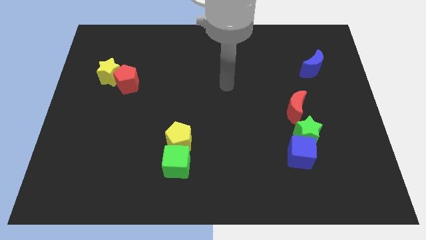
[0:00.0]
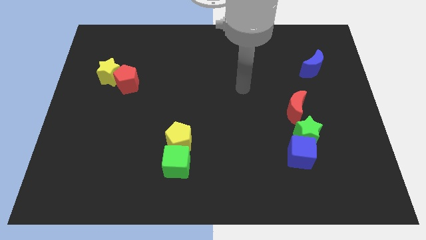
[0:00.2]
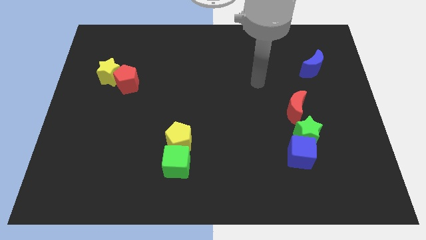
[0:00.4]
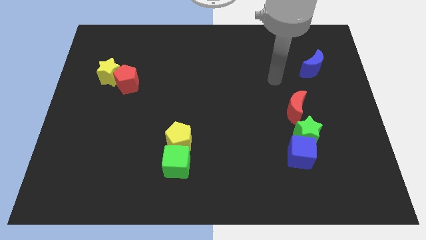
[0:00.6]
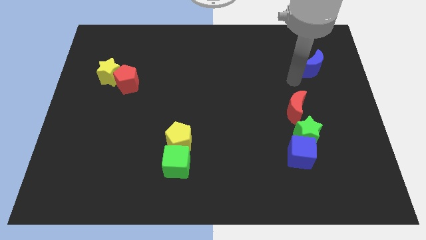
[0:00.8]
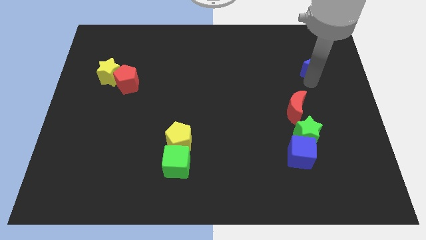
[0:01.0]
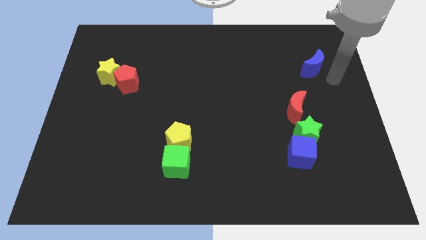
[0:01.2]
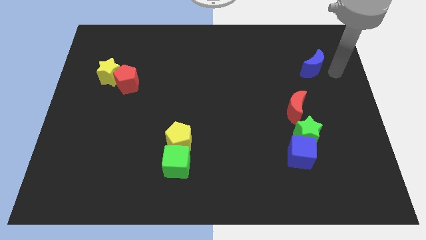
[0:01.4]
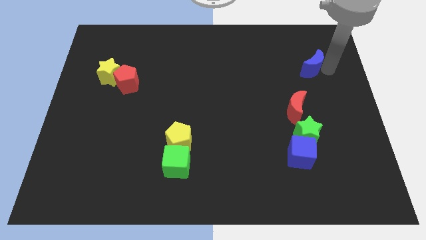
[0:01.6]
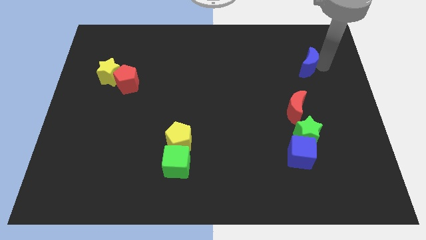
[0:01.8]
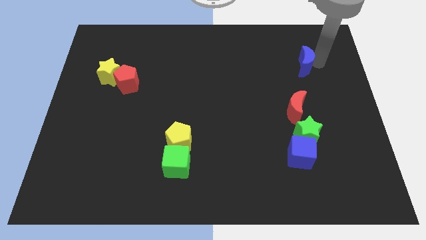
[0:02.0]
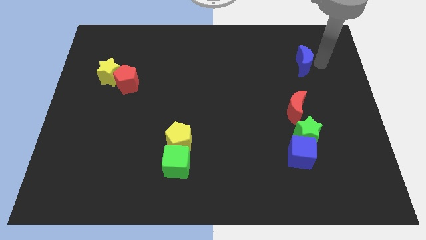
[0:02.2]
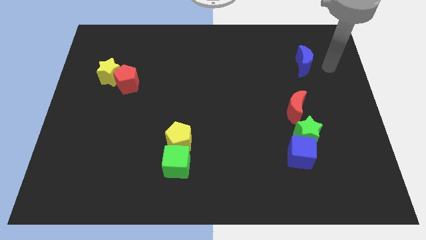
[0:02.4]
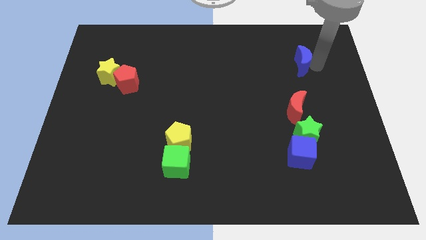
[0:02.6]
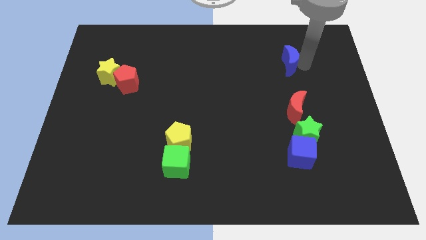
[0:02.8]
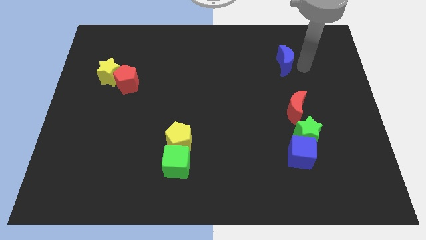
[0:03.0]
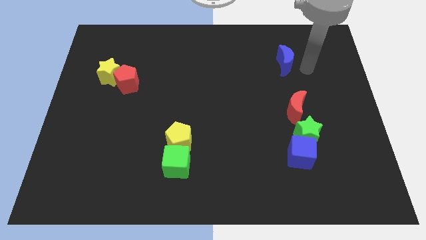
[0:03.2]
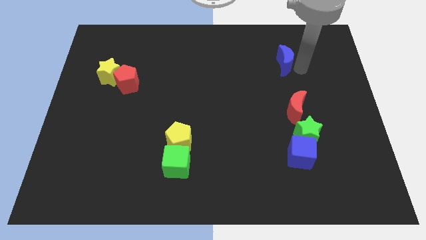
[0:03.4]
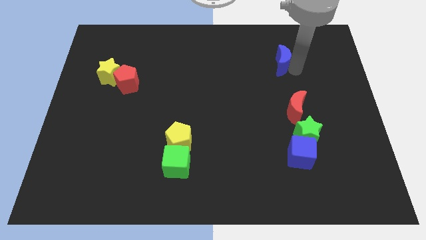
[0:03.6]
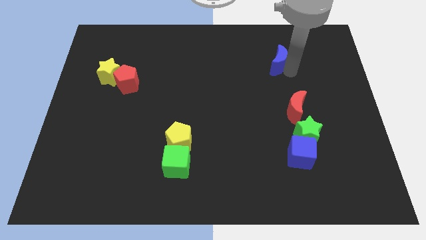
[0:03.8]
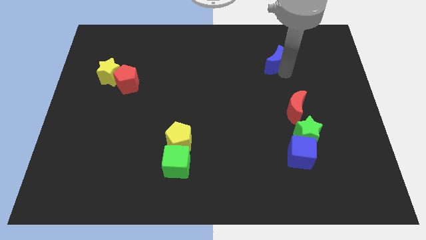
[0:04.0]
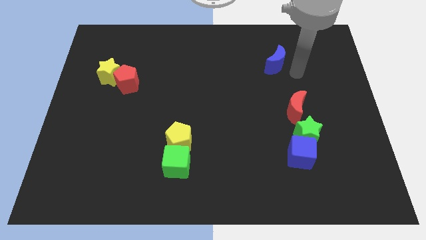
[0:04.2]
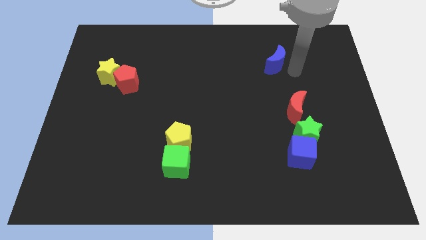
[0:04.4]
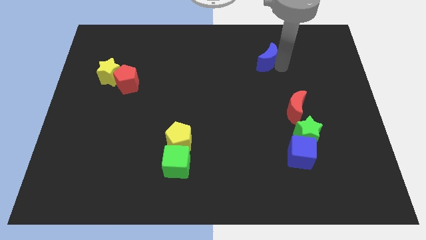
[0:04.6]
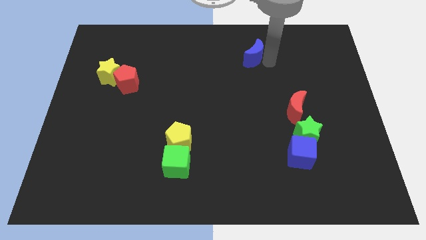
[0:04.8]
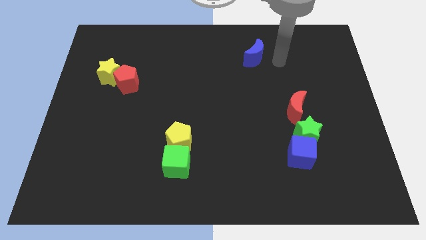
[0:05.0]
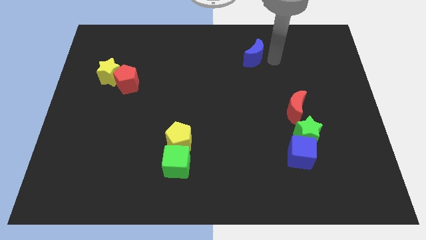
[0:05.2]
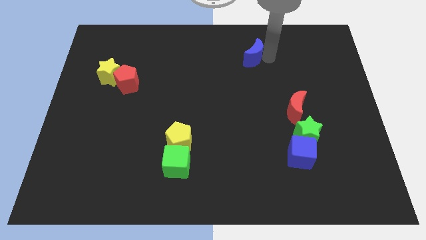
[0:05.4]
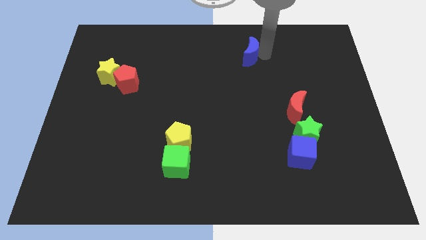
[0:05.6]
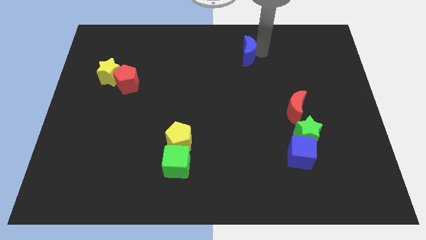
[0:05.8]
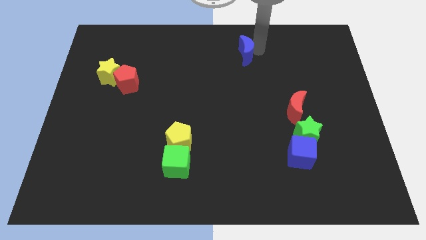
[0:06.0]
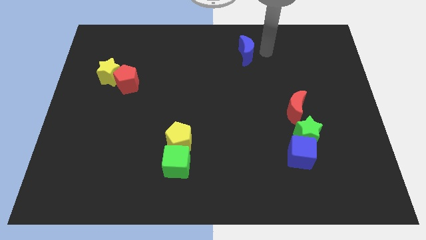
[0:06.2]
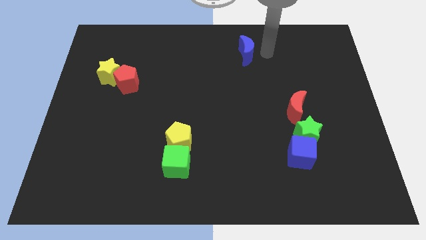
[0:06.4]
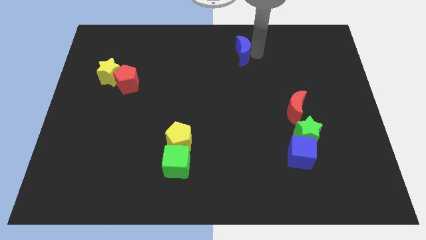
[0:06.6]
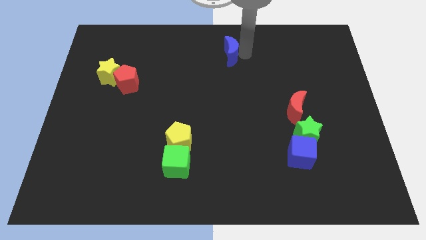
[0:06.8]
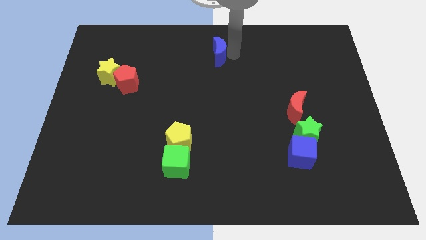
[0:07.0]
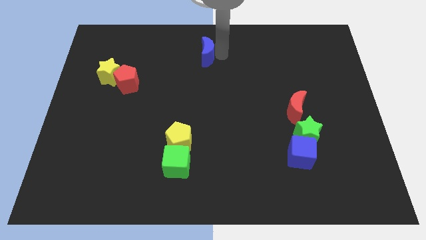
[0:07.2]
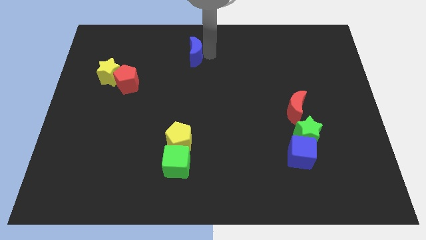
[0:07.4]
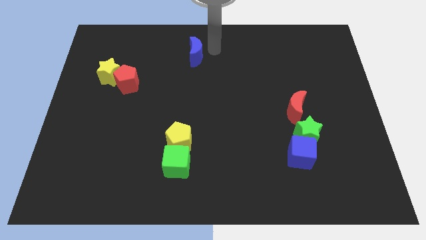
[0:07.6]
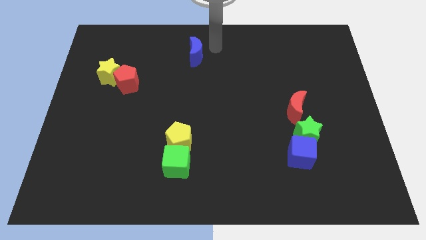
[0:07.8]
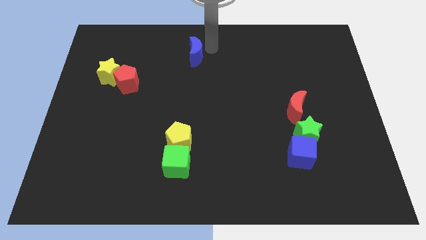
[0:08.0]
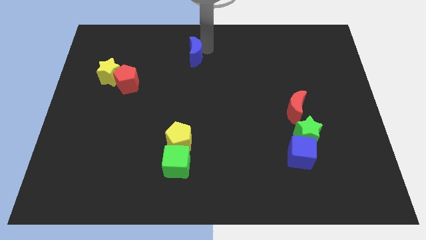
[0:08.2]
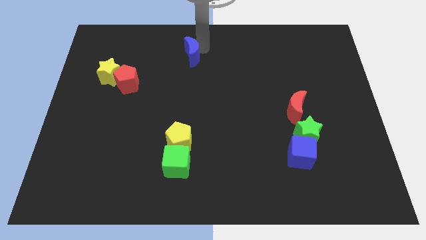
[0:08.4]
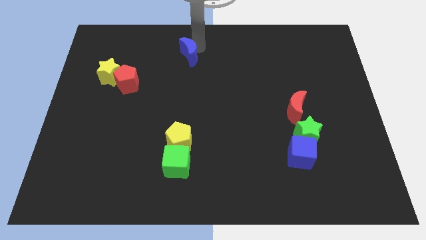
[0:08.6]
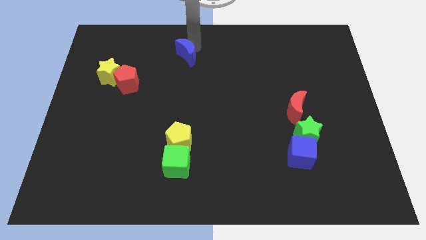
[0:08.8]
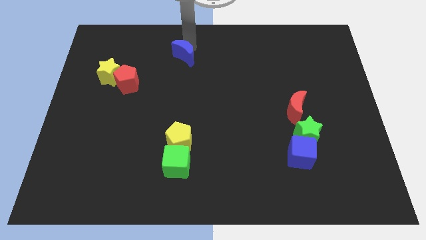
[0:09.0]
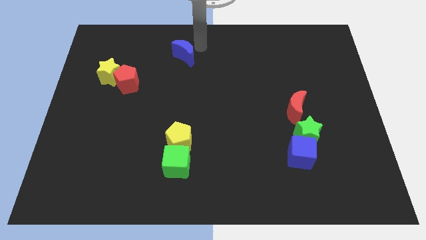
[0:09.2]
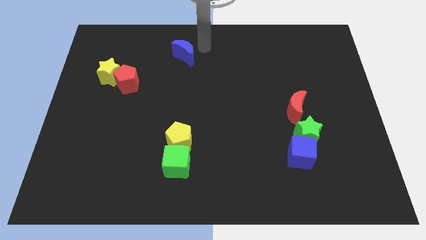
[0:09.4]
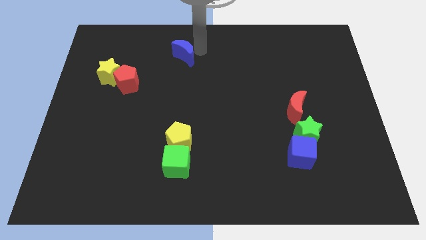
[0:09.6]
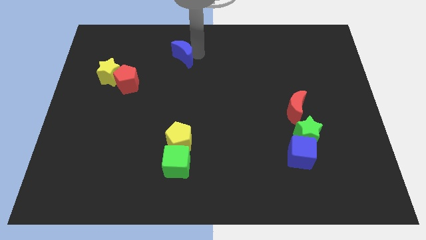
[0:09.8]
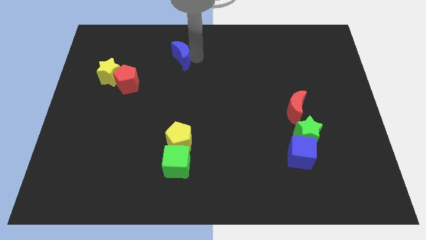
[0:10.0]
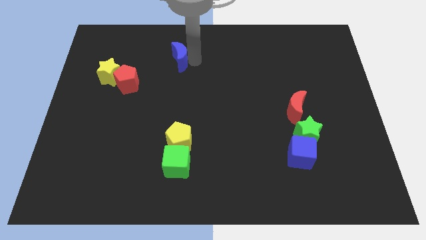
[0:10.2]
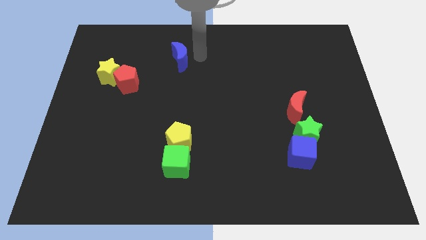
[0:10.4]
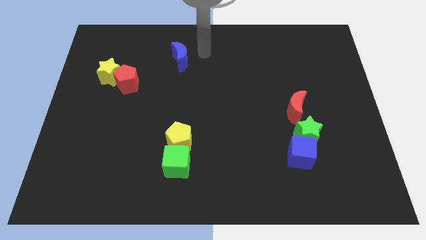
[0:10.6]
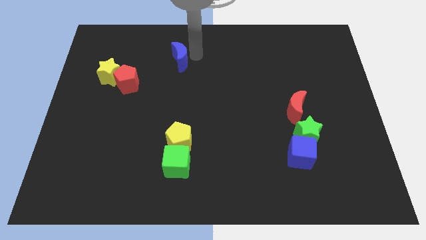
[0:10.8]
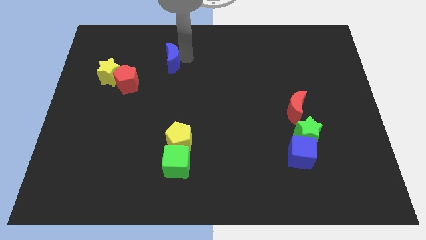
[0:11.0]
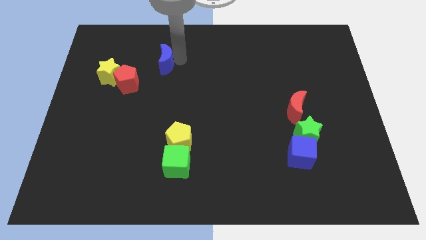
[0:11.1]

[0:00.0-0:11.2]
slide the blue moon diagonally up and to the right of the red pentagon
